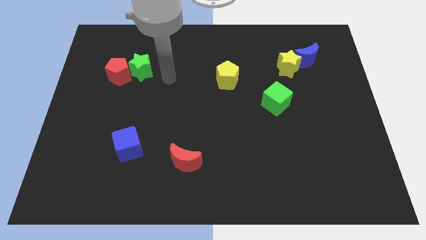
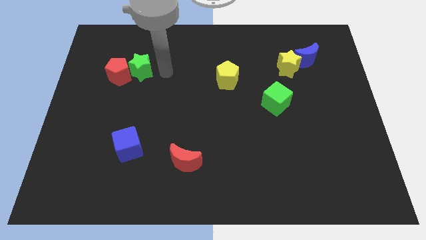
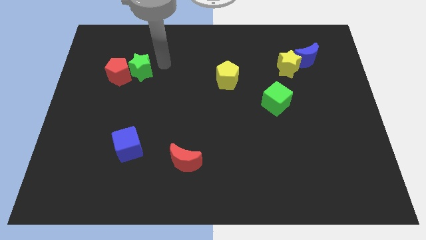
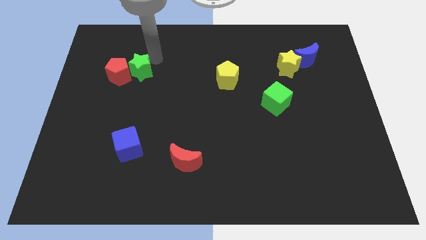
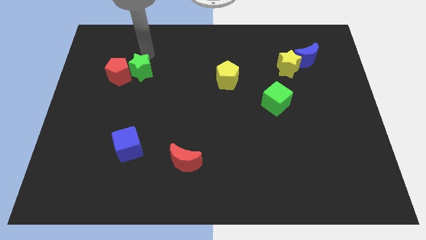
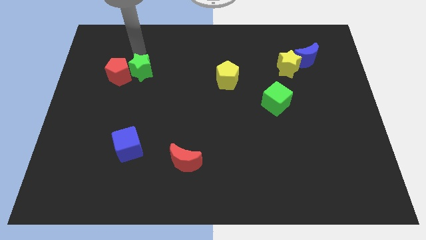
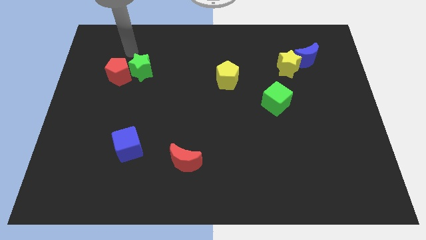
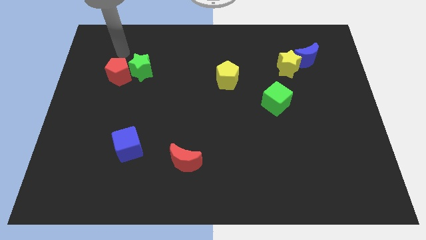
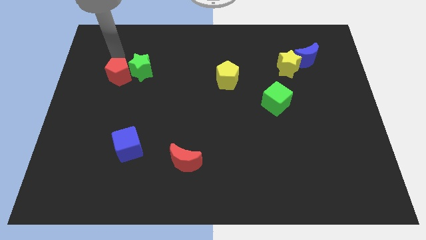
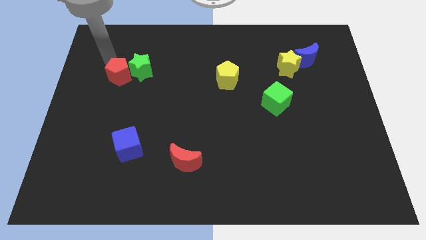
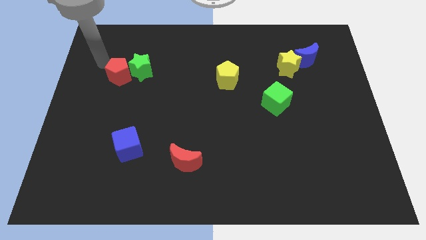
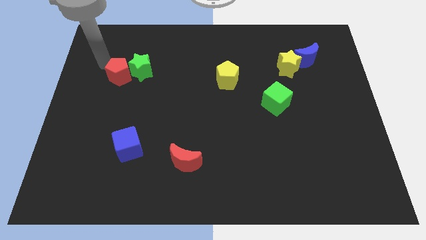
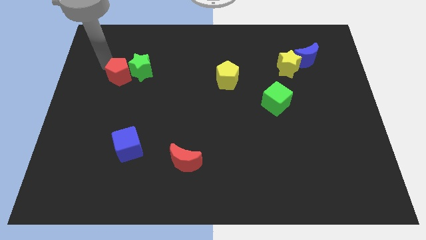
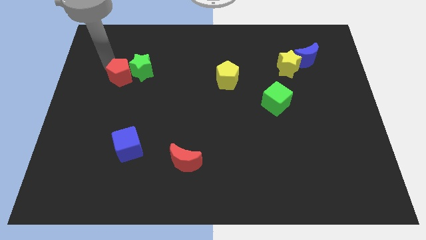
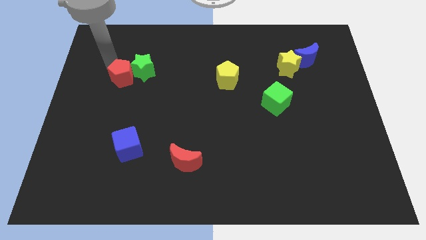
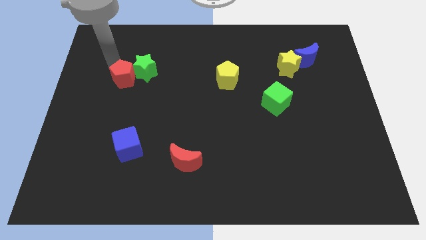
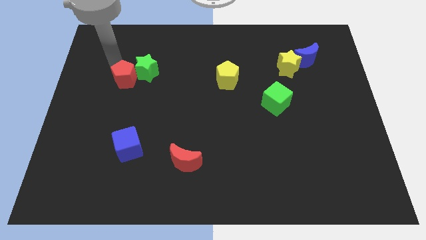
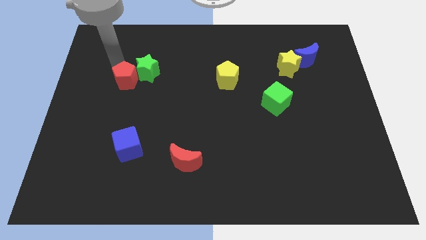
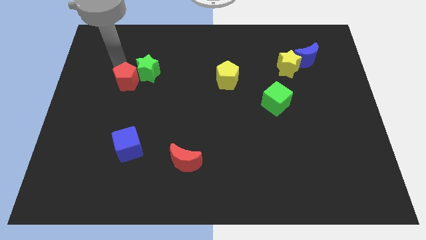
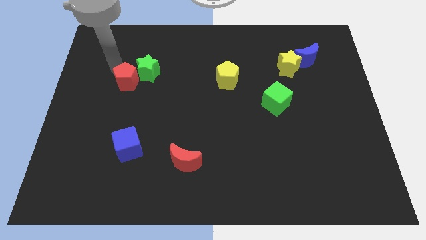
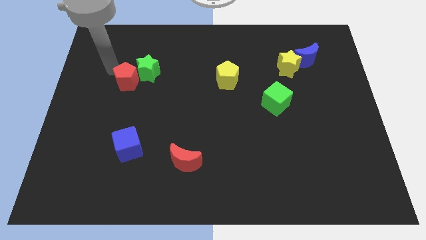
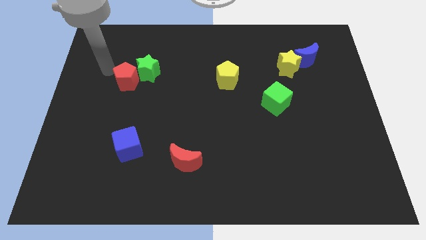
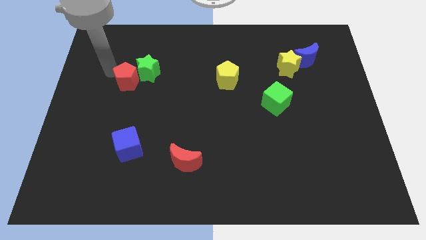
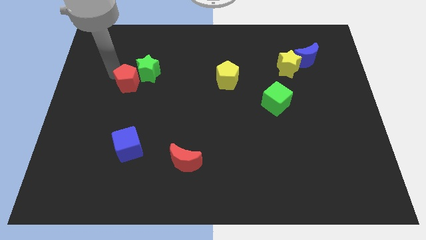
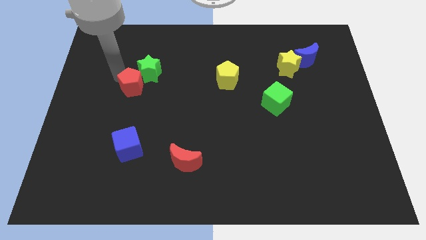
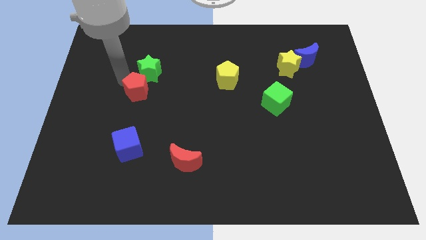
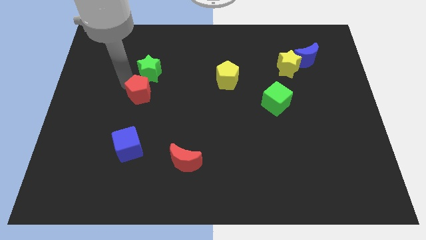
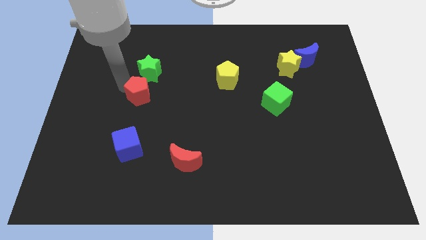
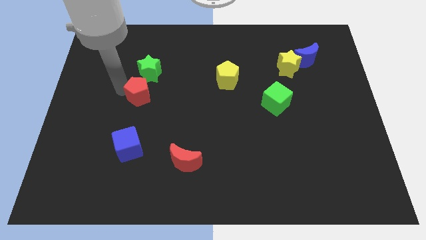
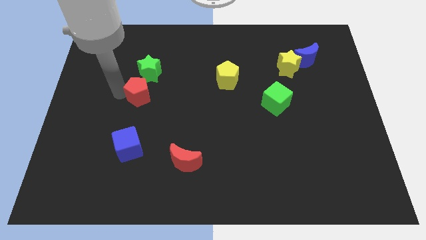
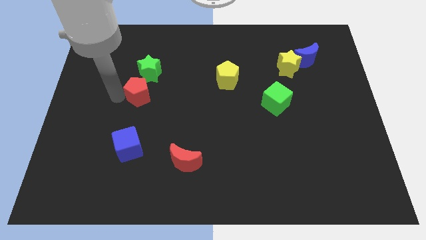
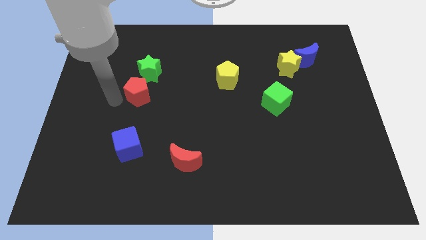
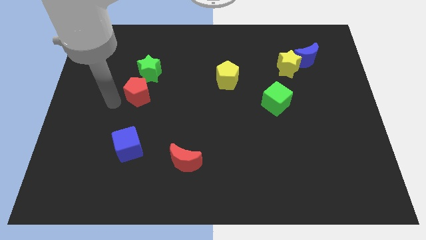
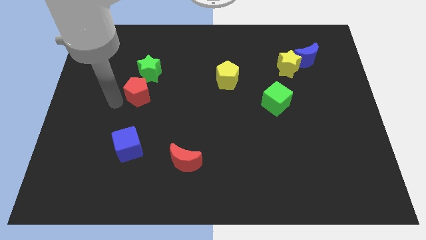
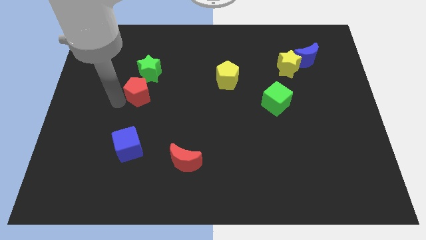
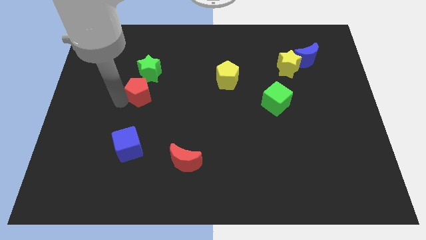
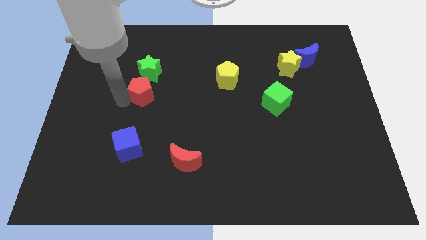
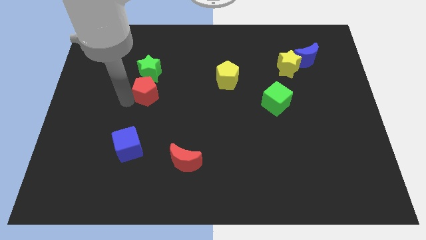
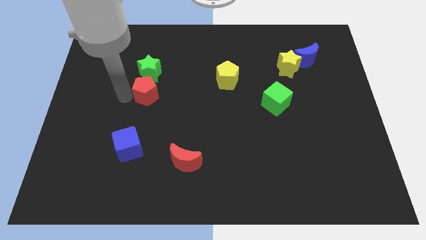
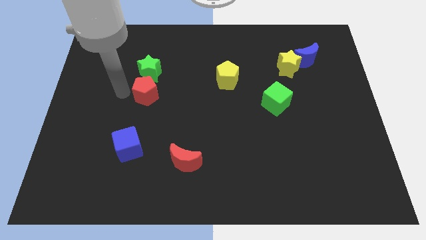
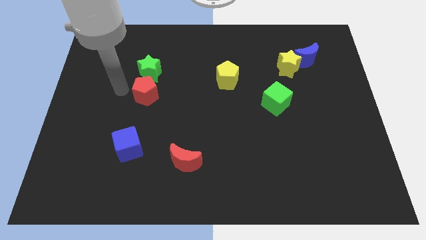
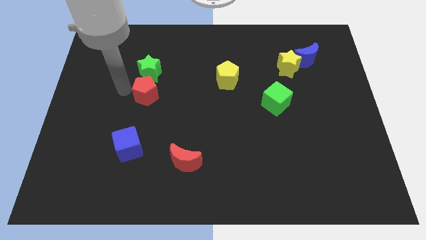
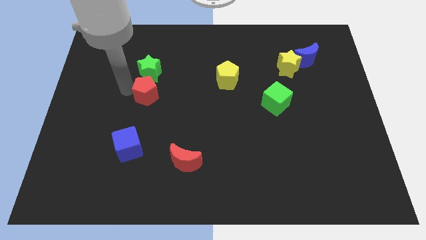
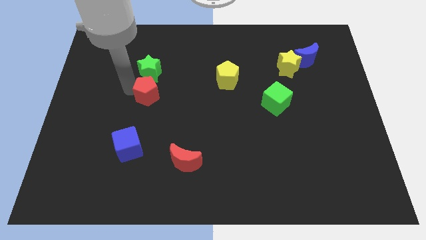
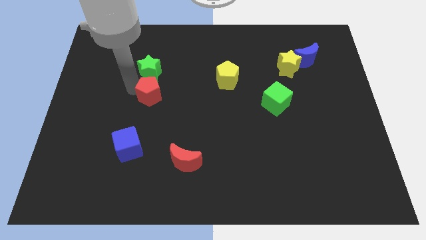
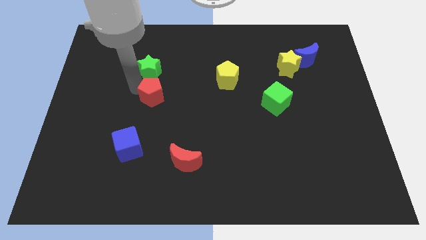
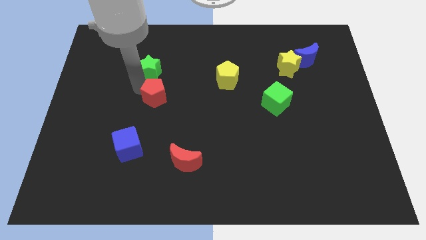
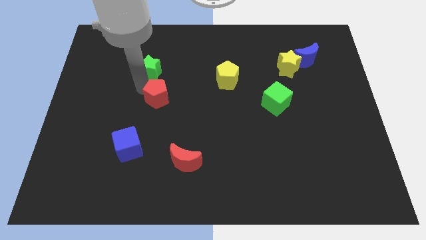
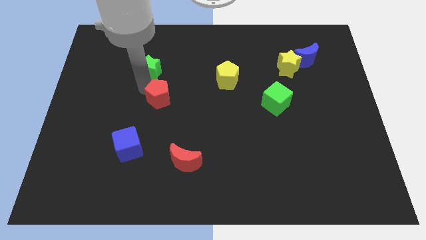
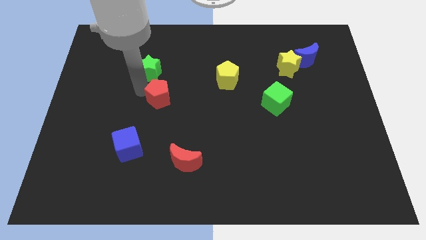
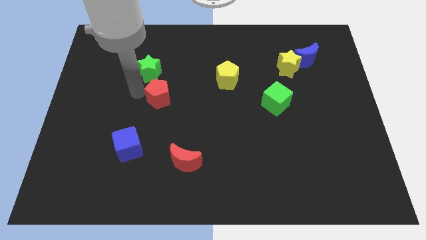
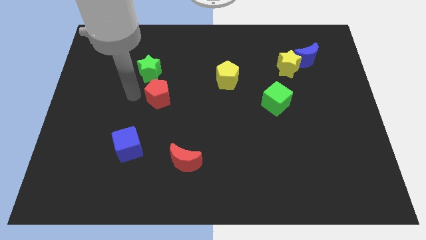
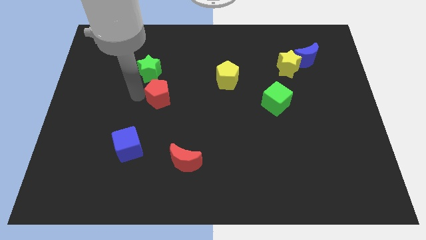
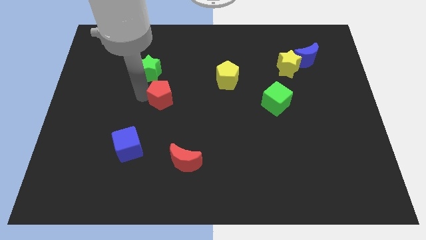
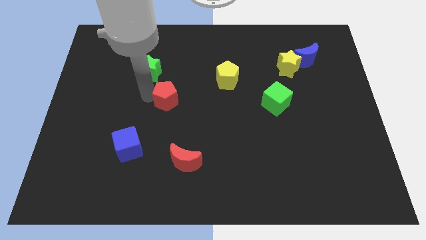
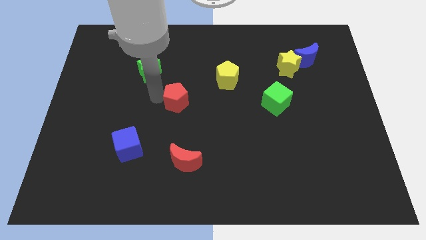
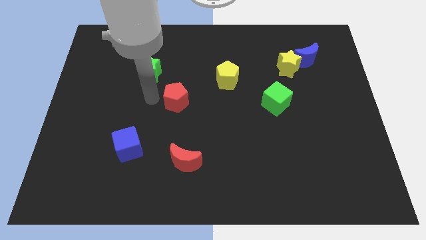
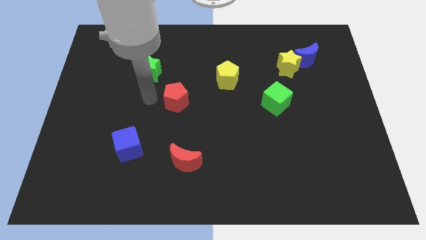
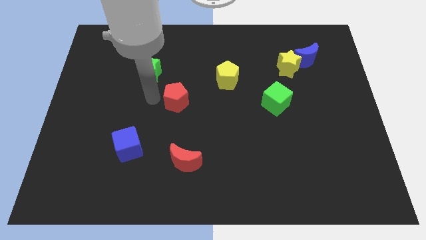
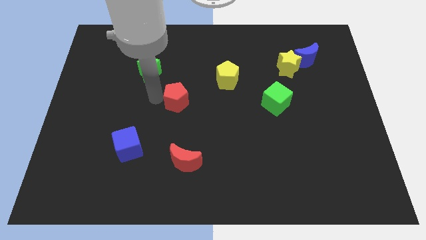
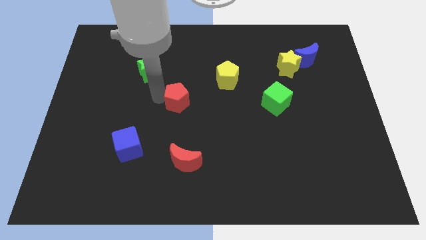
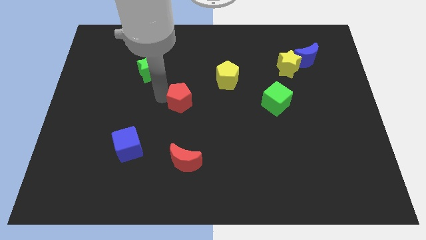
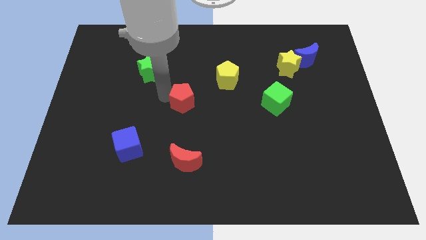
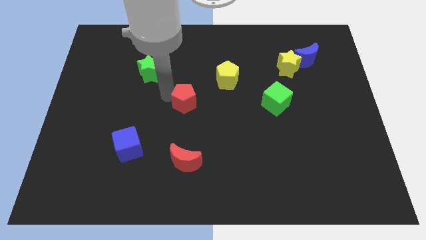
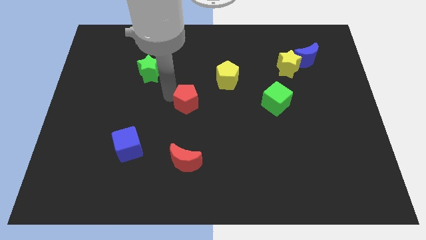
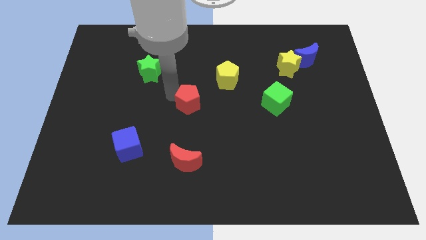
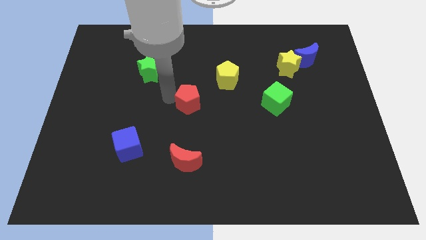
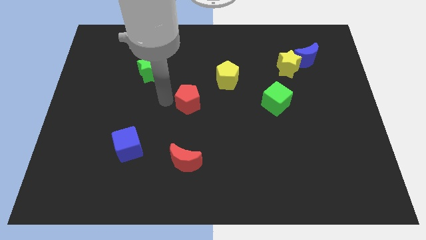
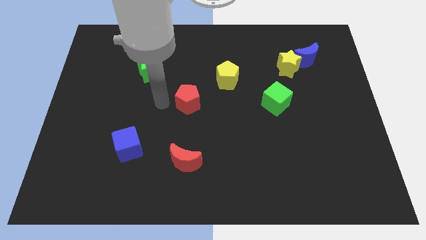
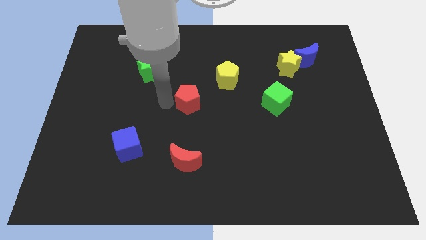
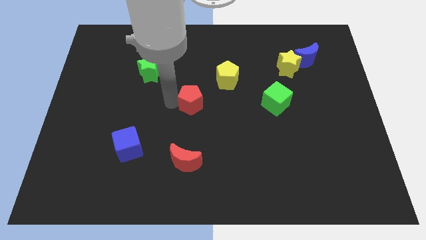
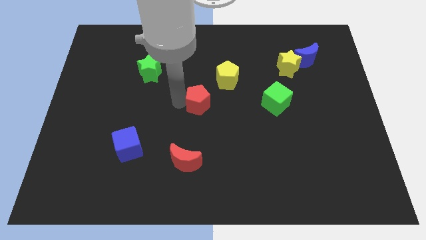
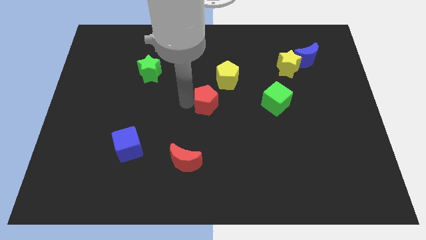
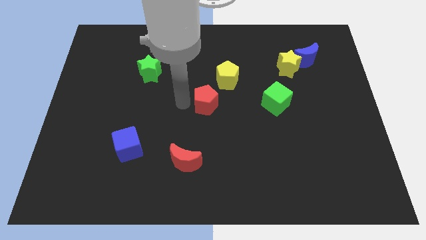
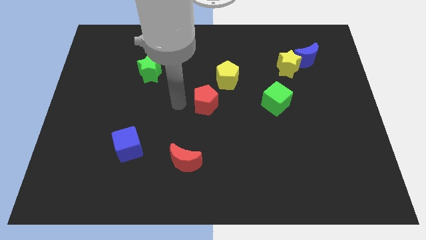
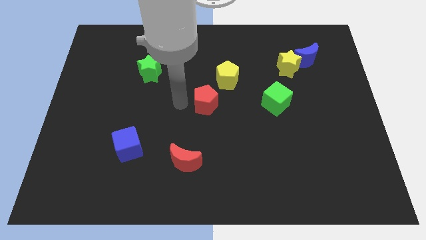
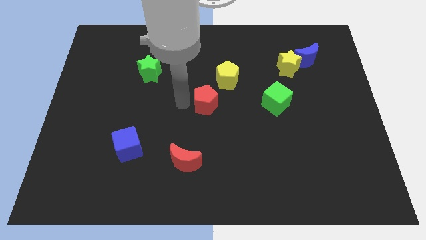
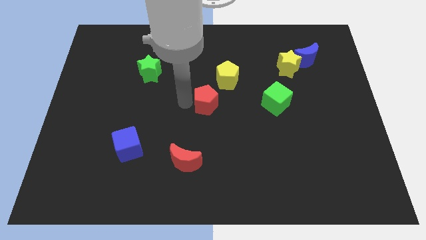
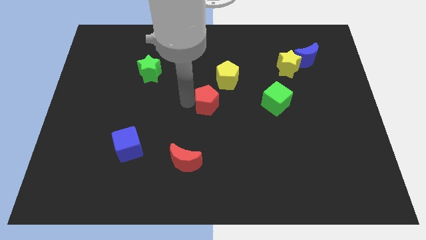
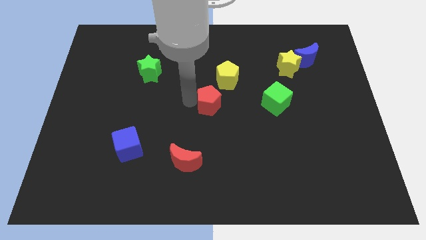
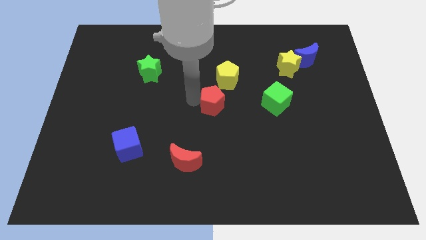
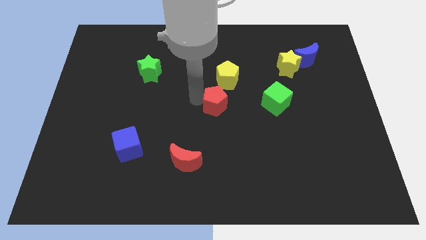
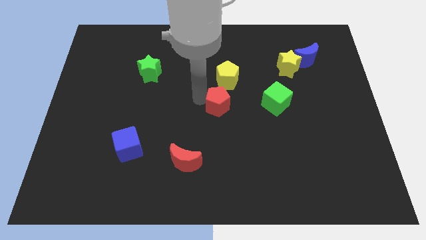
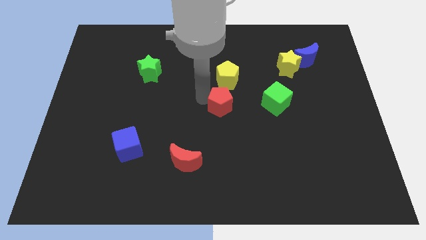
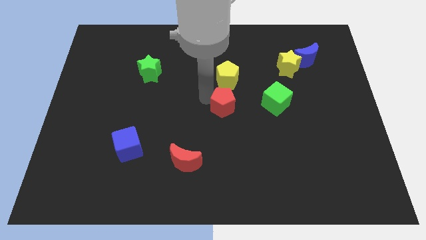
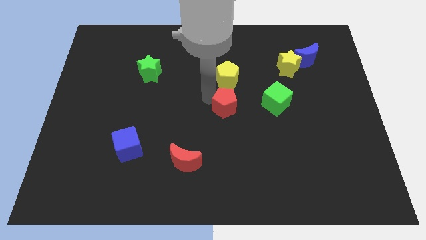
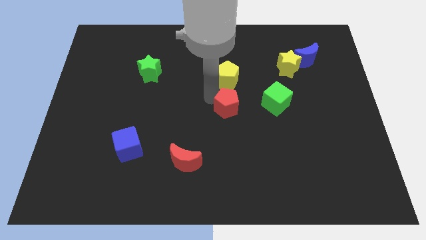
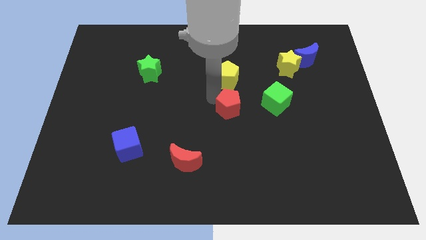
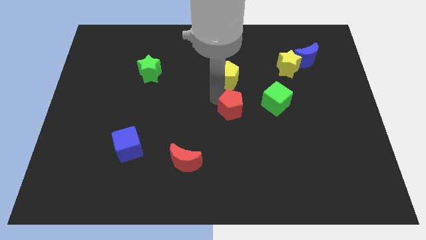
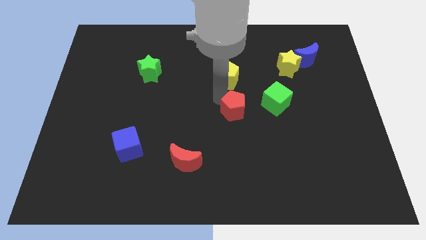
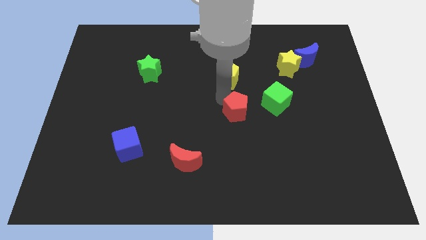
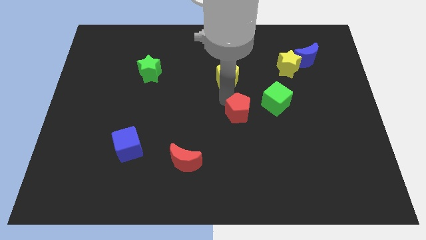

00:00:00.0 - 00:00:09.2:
slide the red pentagon to the bottom left of the green cube
